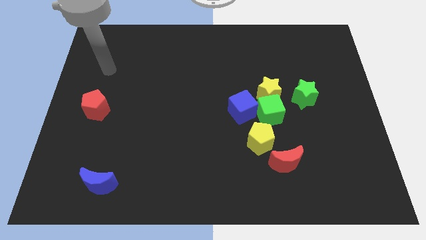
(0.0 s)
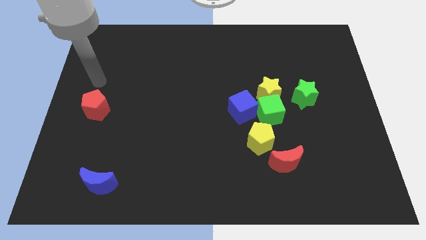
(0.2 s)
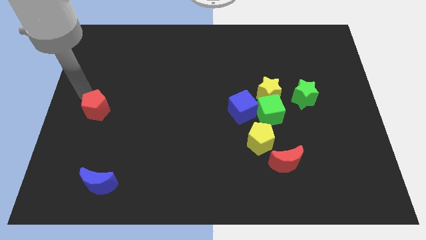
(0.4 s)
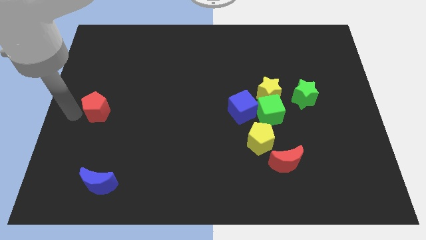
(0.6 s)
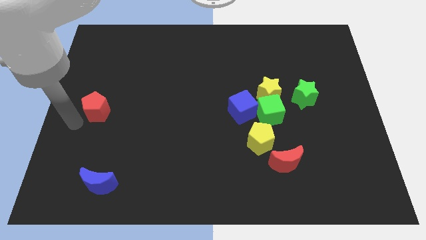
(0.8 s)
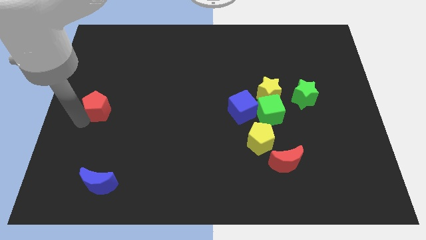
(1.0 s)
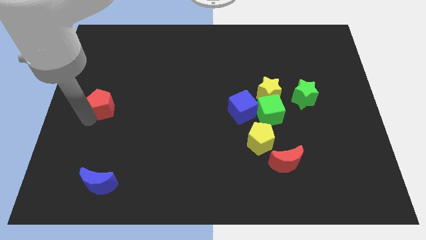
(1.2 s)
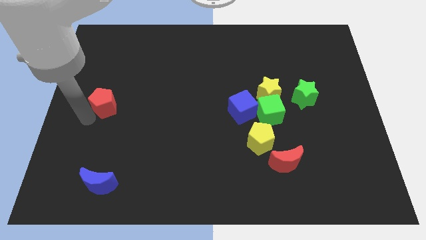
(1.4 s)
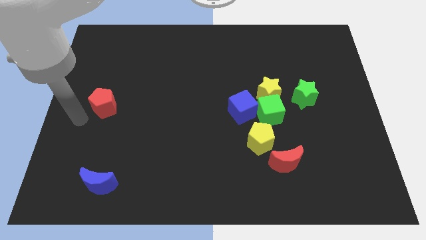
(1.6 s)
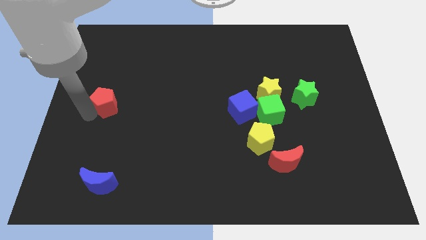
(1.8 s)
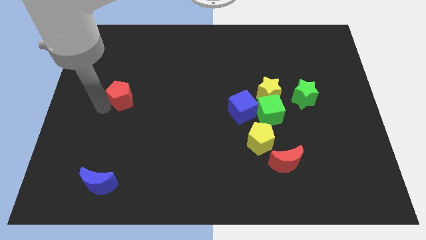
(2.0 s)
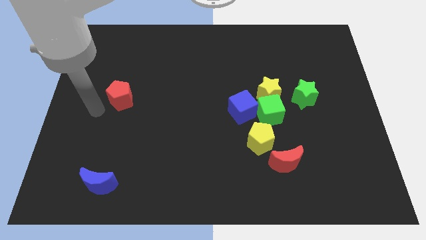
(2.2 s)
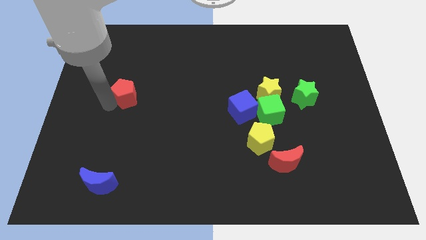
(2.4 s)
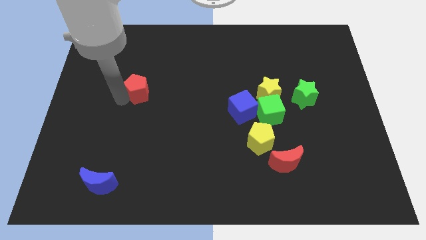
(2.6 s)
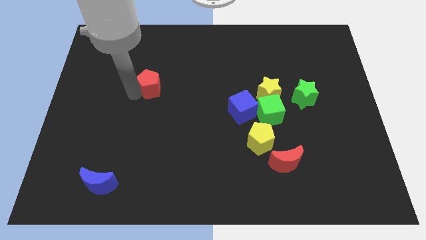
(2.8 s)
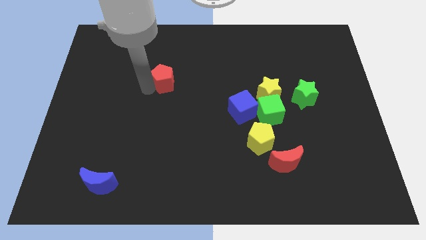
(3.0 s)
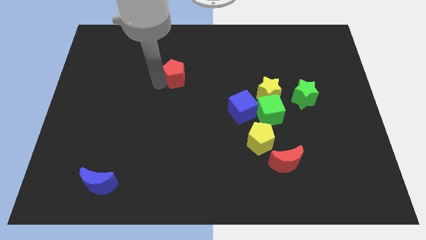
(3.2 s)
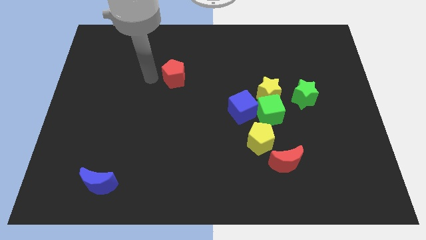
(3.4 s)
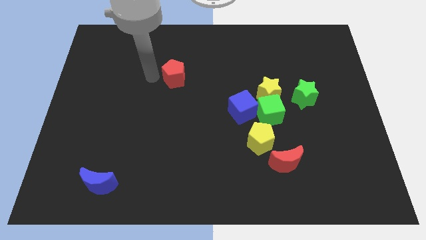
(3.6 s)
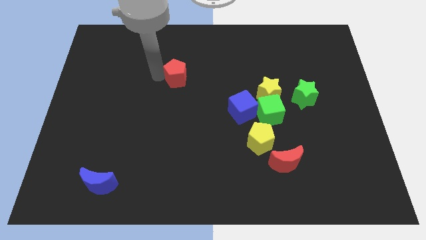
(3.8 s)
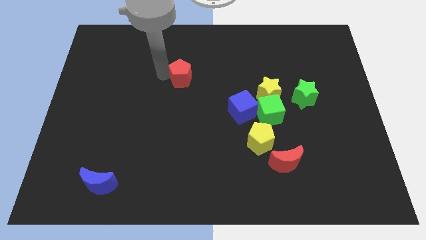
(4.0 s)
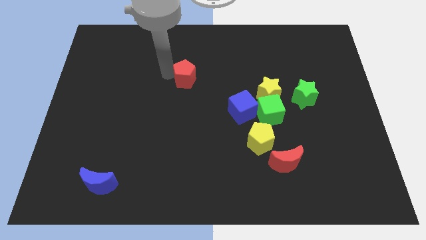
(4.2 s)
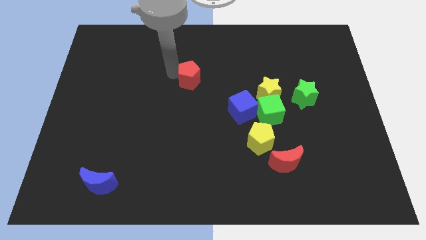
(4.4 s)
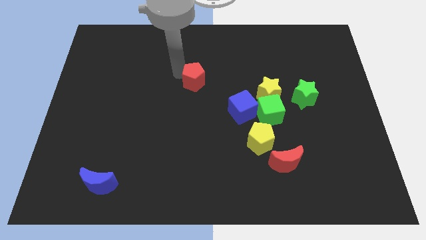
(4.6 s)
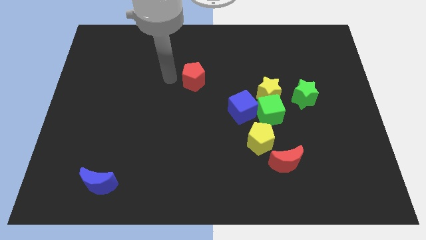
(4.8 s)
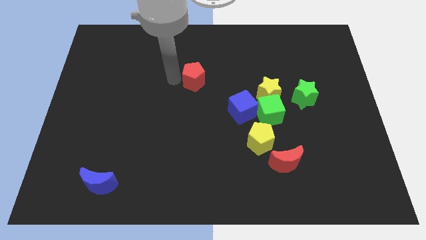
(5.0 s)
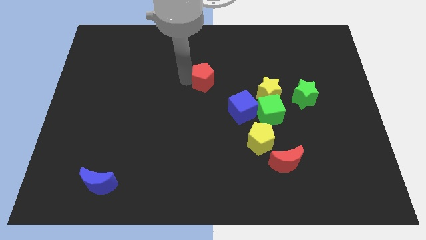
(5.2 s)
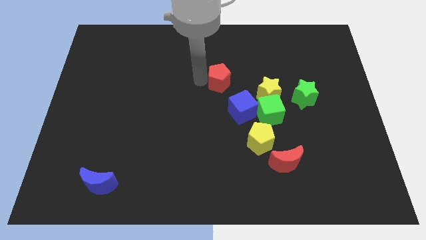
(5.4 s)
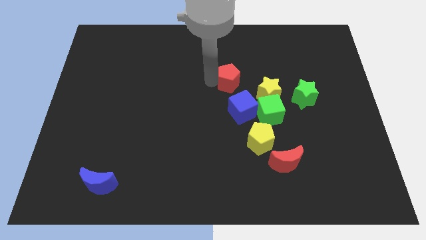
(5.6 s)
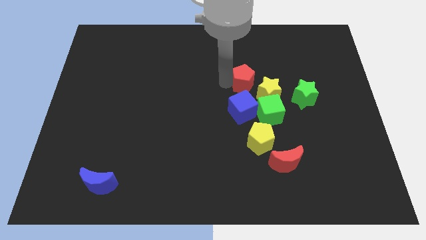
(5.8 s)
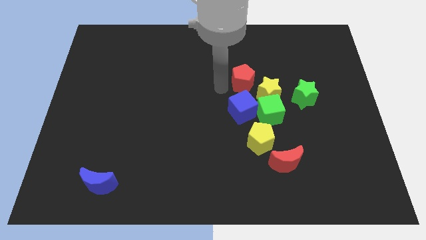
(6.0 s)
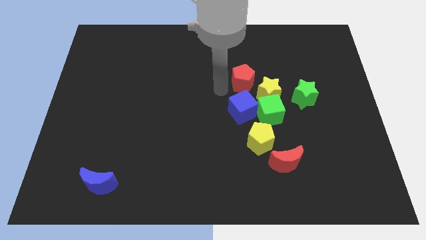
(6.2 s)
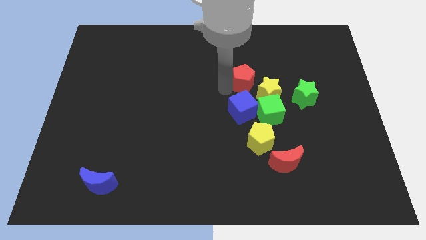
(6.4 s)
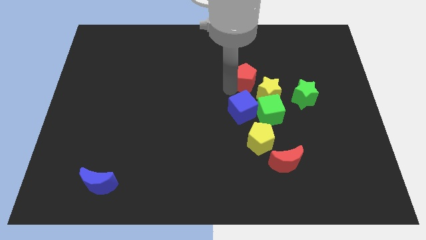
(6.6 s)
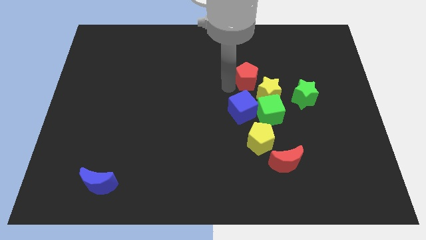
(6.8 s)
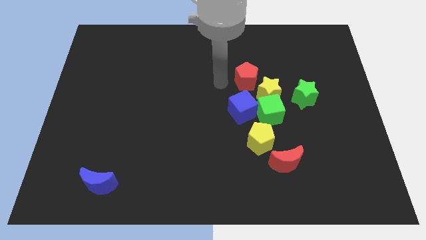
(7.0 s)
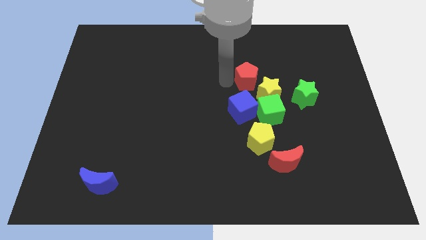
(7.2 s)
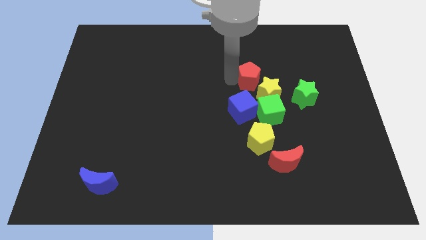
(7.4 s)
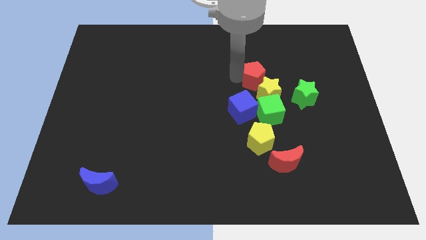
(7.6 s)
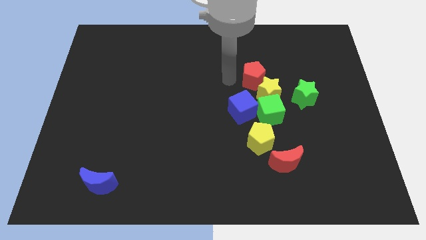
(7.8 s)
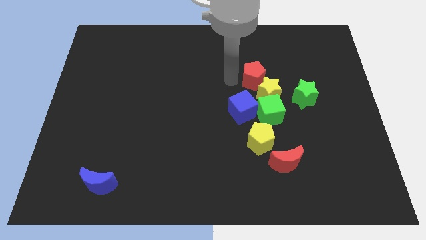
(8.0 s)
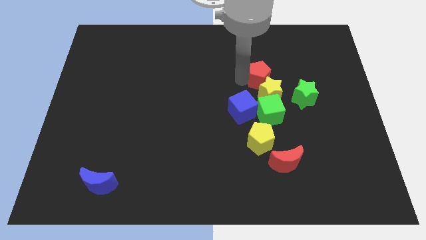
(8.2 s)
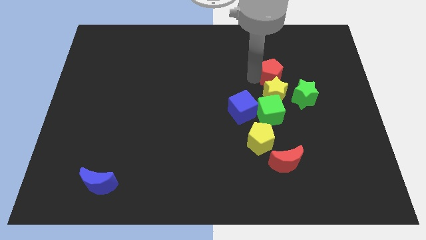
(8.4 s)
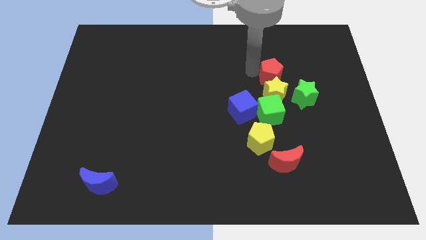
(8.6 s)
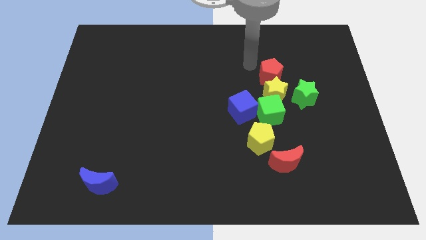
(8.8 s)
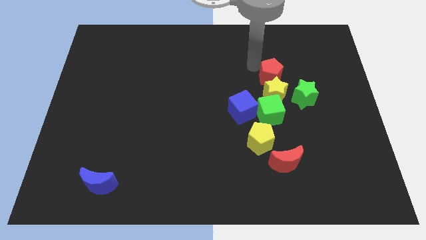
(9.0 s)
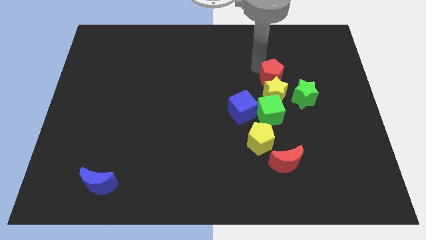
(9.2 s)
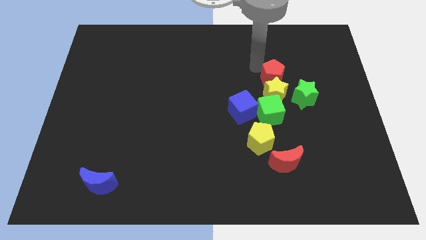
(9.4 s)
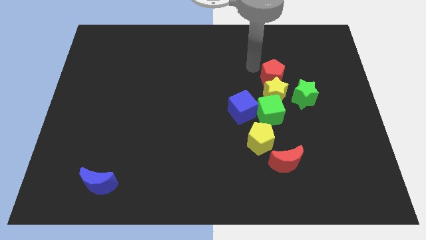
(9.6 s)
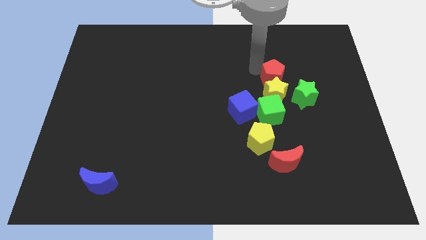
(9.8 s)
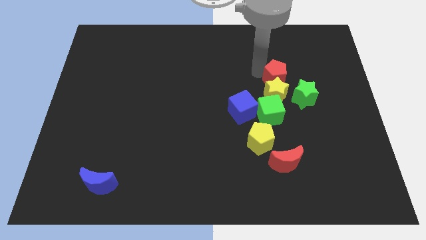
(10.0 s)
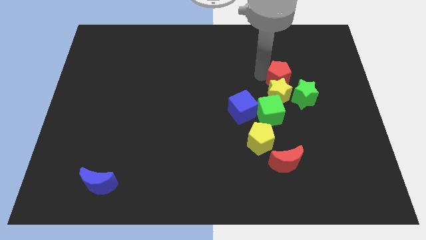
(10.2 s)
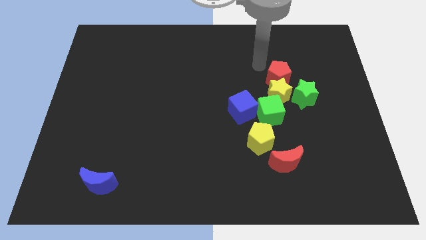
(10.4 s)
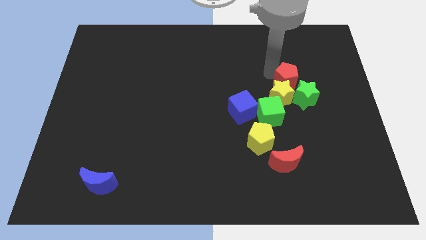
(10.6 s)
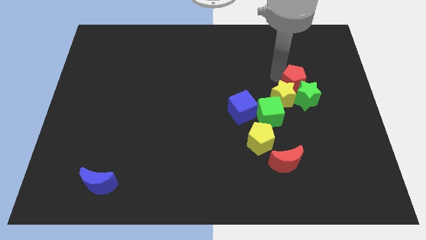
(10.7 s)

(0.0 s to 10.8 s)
push the red pentagon close to the green star

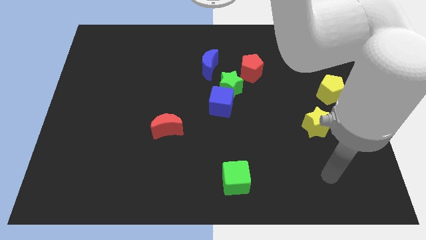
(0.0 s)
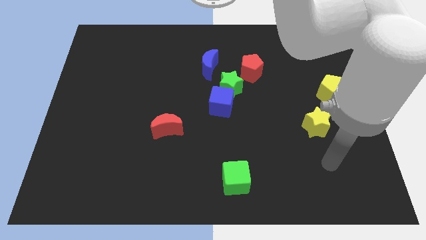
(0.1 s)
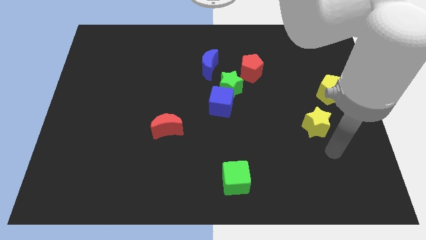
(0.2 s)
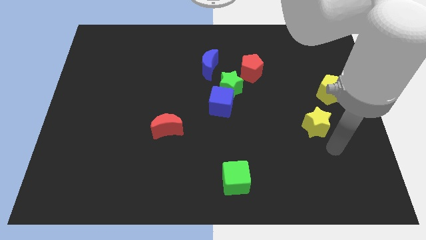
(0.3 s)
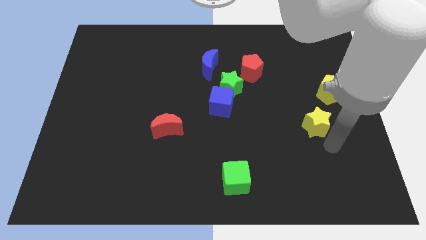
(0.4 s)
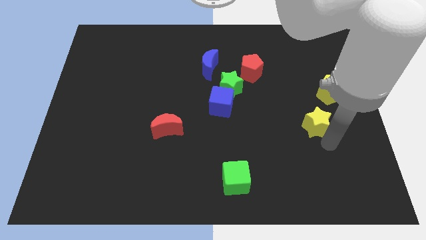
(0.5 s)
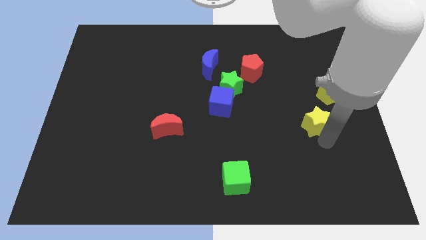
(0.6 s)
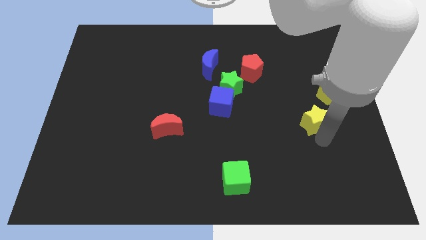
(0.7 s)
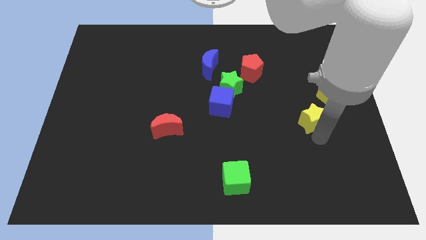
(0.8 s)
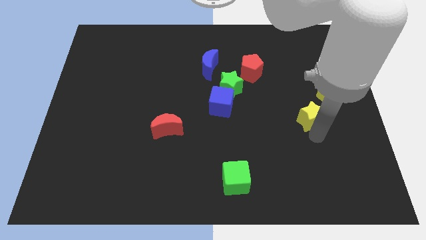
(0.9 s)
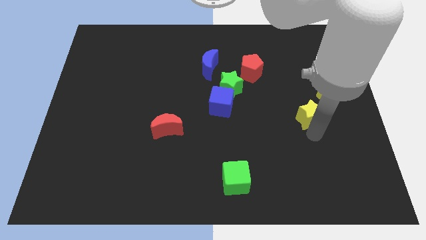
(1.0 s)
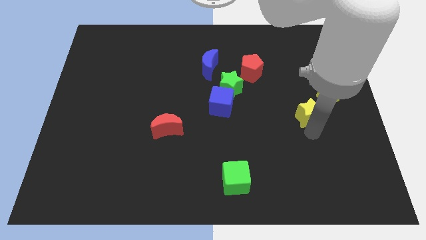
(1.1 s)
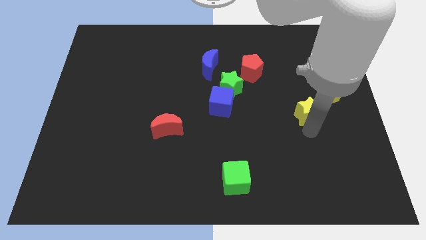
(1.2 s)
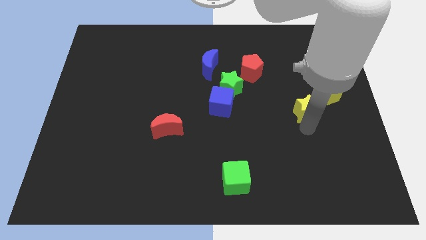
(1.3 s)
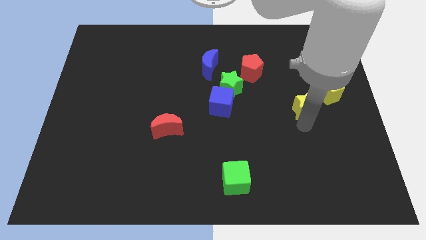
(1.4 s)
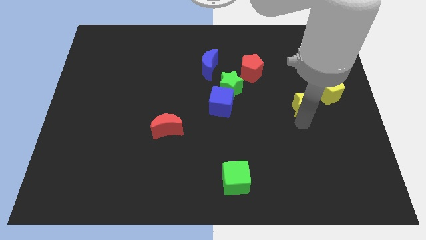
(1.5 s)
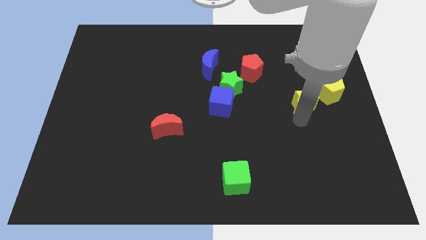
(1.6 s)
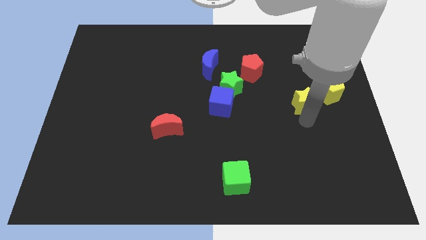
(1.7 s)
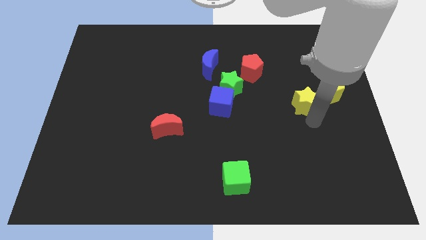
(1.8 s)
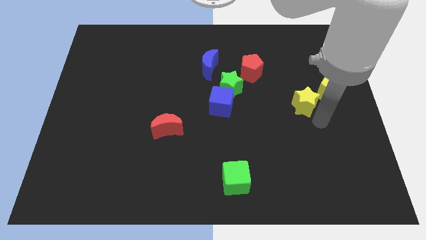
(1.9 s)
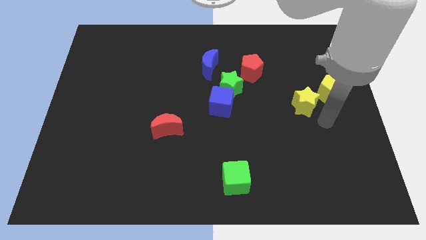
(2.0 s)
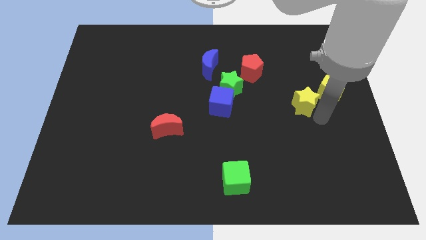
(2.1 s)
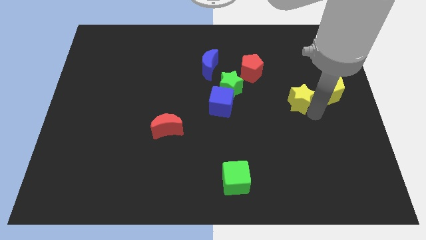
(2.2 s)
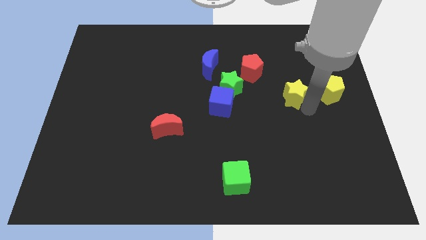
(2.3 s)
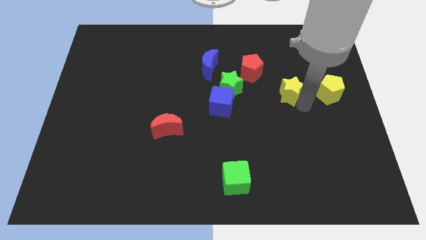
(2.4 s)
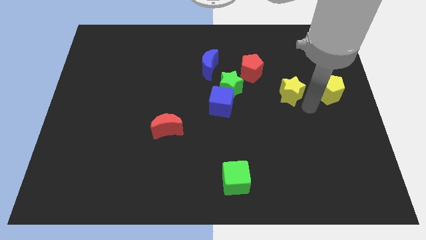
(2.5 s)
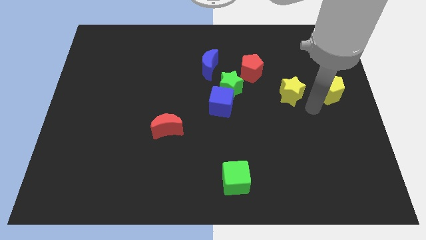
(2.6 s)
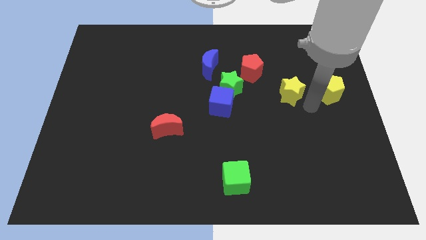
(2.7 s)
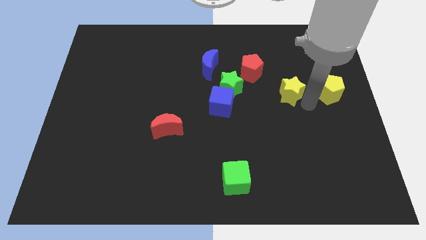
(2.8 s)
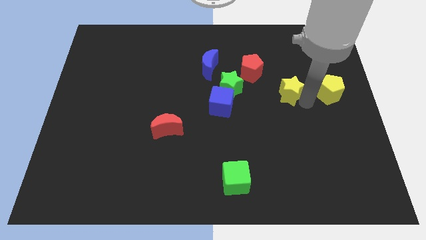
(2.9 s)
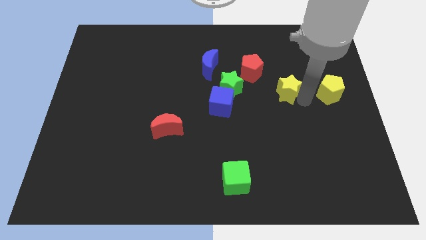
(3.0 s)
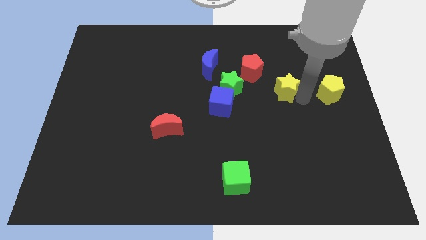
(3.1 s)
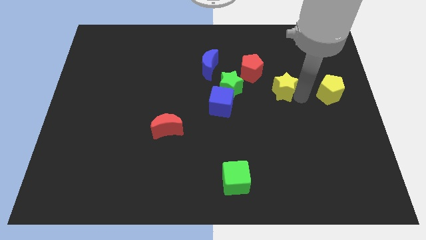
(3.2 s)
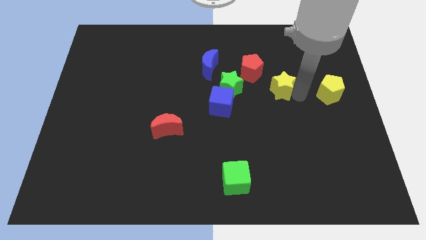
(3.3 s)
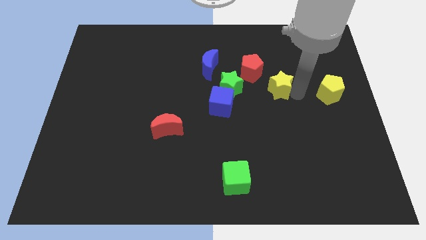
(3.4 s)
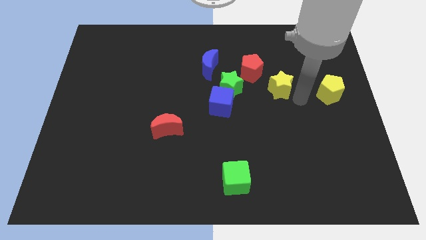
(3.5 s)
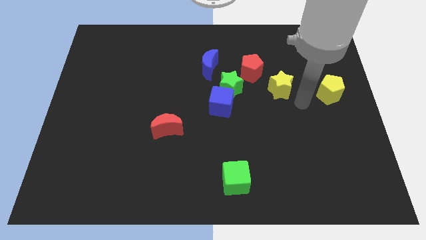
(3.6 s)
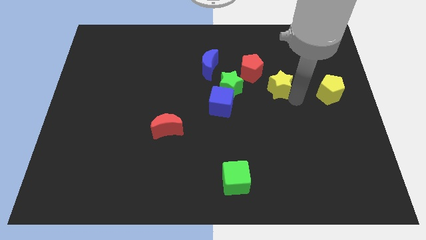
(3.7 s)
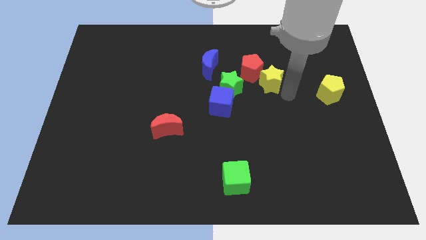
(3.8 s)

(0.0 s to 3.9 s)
slide the yellow star to the red pentagon
